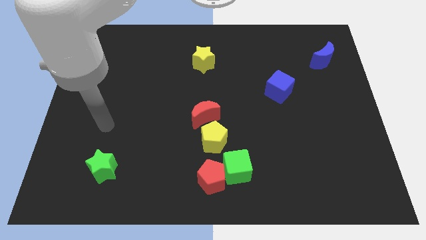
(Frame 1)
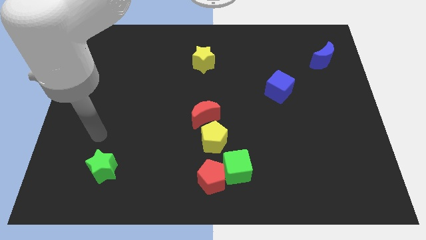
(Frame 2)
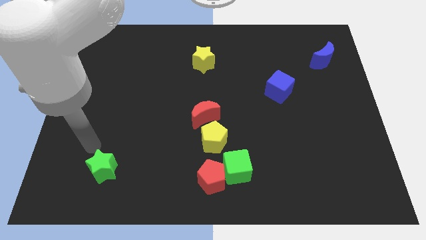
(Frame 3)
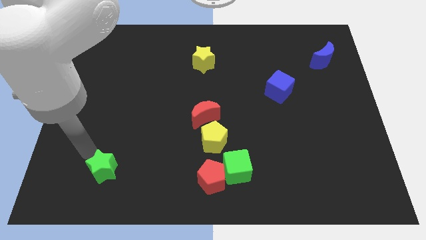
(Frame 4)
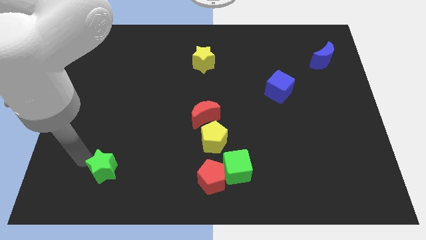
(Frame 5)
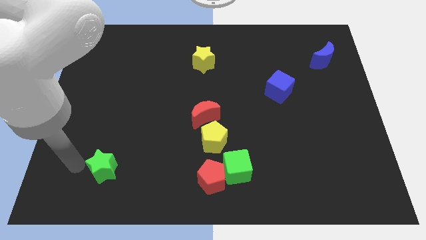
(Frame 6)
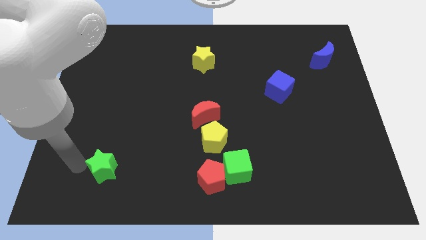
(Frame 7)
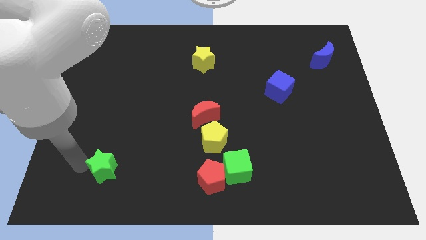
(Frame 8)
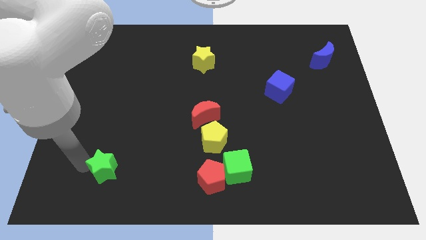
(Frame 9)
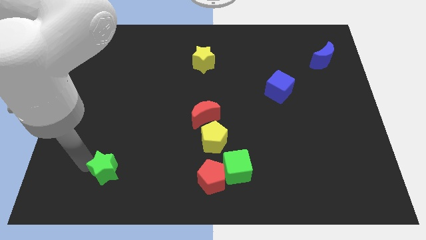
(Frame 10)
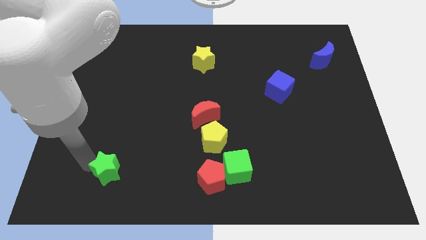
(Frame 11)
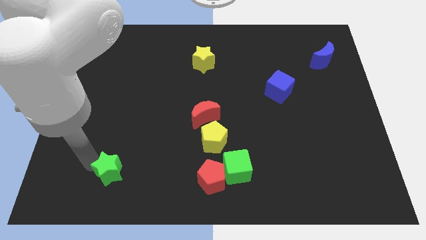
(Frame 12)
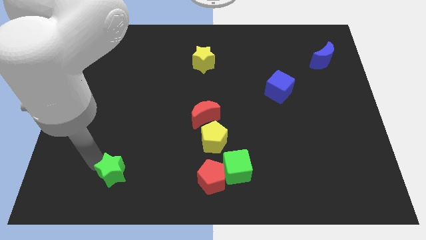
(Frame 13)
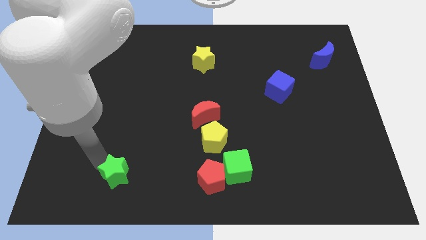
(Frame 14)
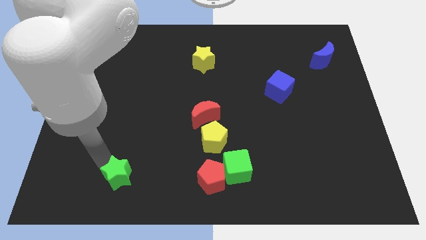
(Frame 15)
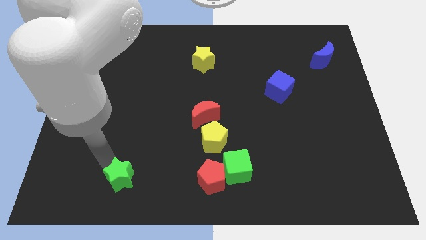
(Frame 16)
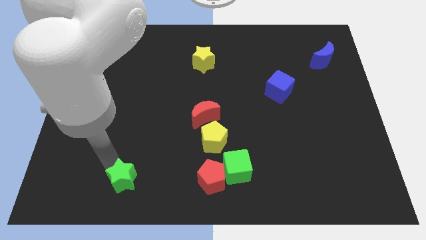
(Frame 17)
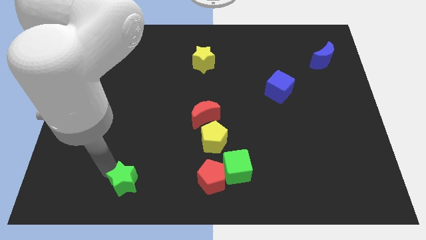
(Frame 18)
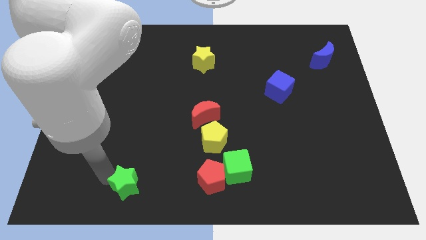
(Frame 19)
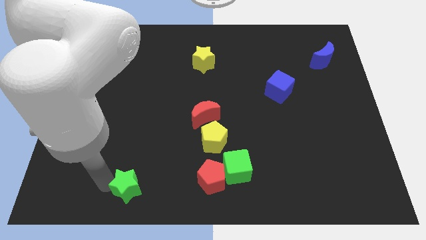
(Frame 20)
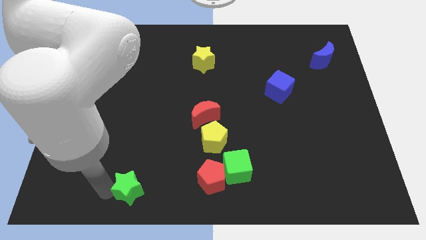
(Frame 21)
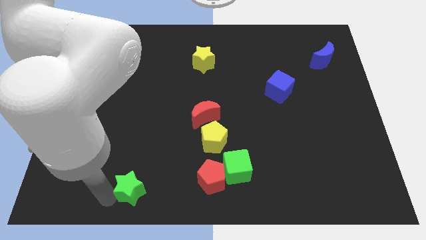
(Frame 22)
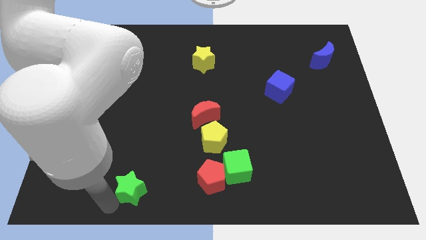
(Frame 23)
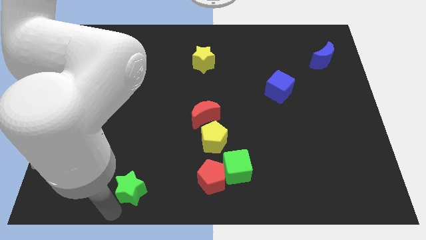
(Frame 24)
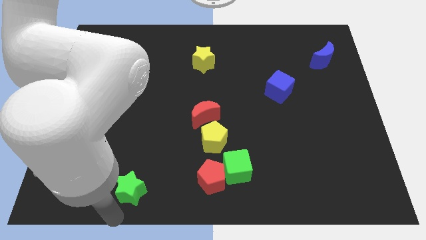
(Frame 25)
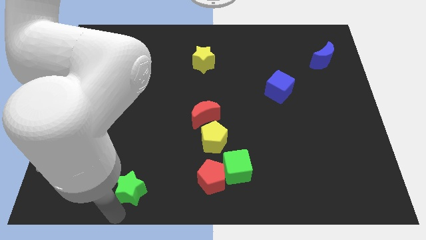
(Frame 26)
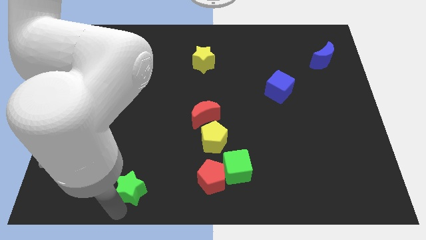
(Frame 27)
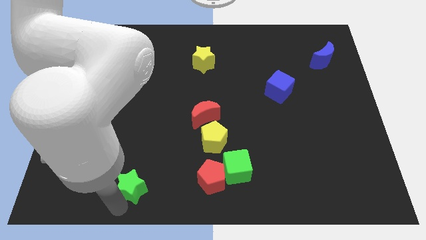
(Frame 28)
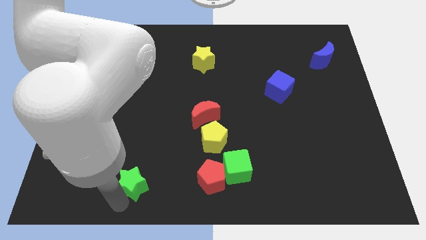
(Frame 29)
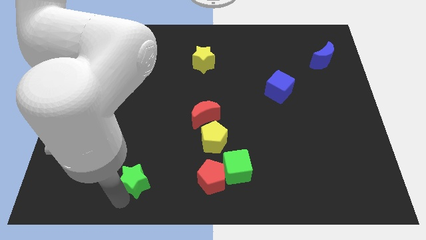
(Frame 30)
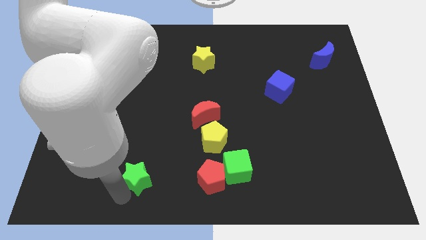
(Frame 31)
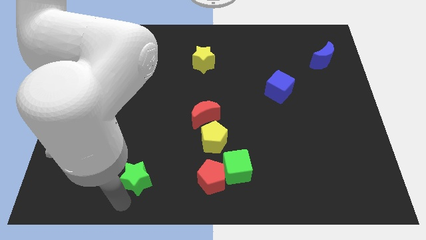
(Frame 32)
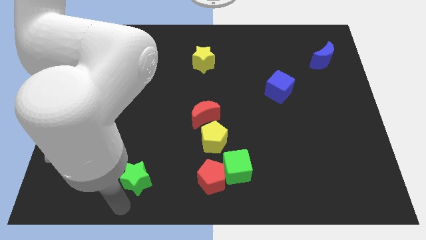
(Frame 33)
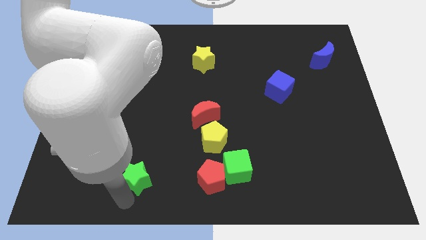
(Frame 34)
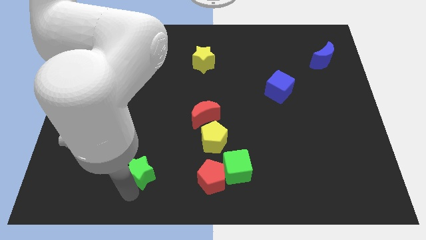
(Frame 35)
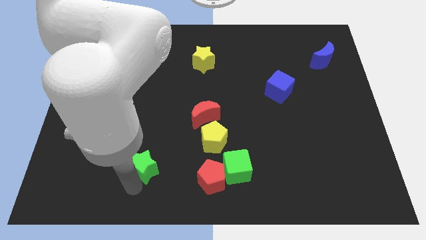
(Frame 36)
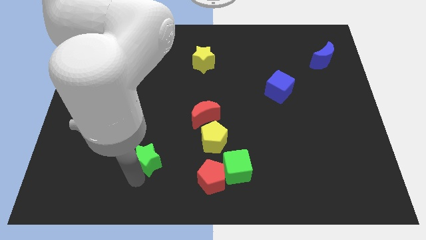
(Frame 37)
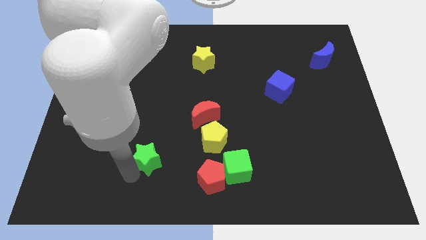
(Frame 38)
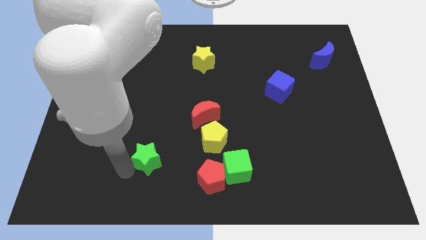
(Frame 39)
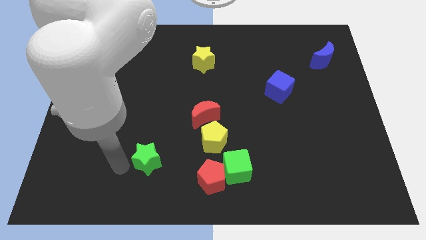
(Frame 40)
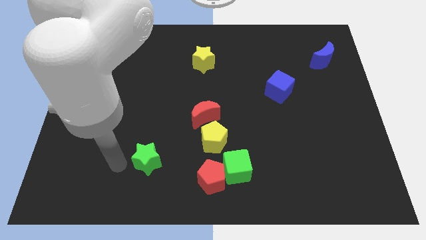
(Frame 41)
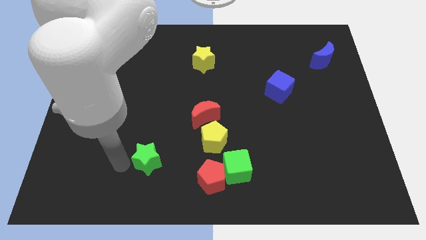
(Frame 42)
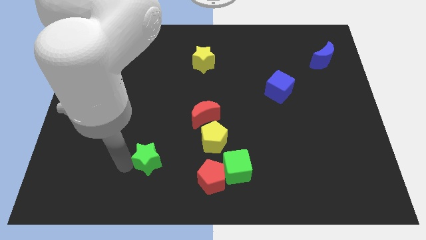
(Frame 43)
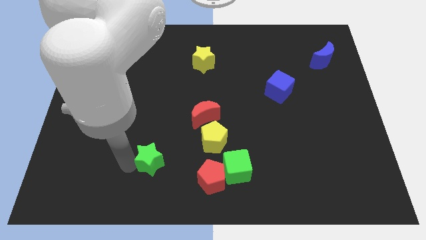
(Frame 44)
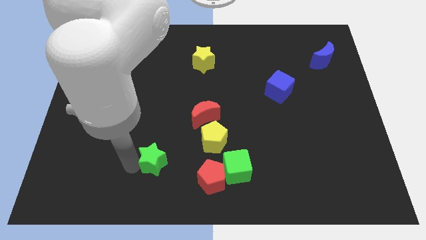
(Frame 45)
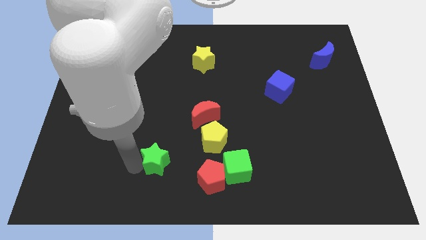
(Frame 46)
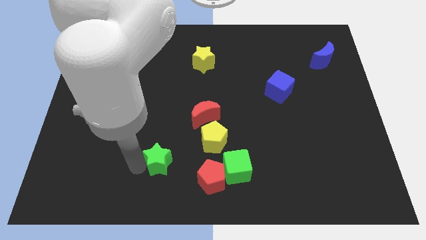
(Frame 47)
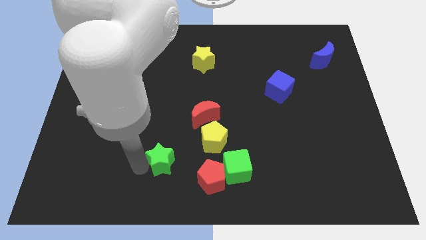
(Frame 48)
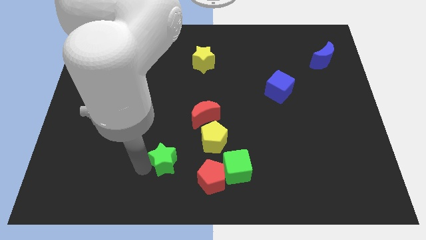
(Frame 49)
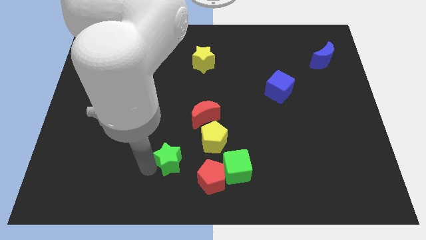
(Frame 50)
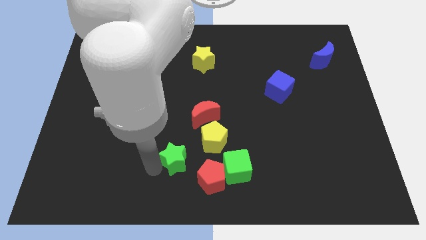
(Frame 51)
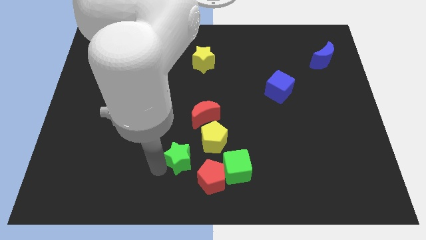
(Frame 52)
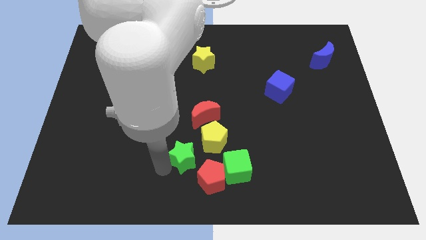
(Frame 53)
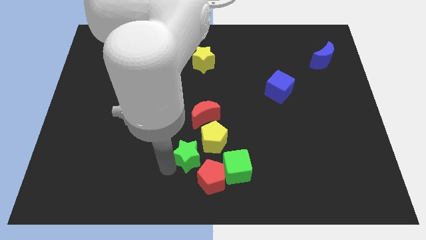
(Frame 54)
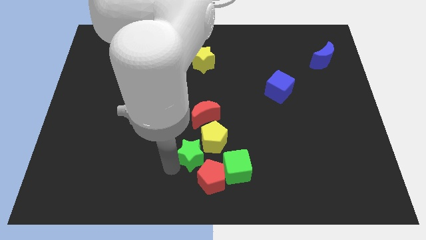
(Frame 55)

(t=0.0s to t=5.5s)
push the green star towards the yellow pentagon

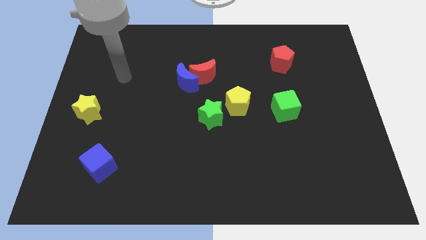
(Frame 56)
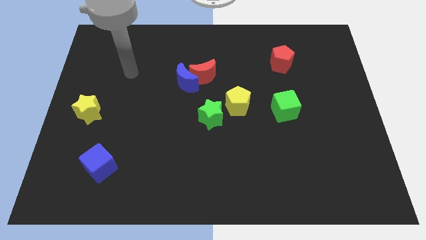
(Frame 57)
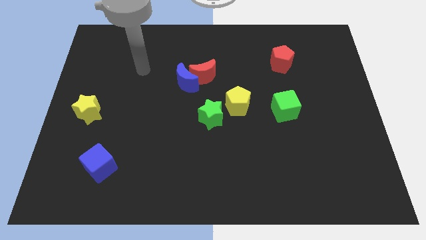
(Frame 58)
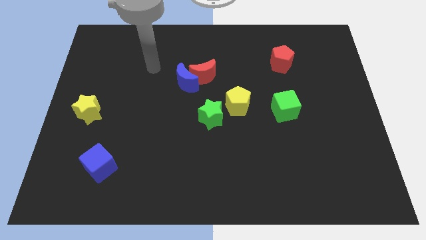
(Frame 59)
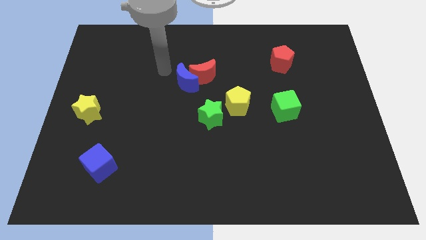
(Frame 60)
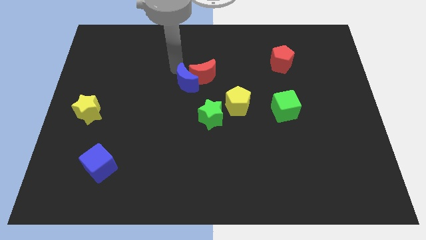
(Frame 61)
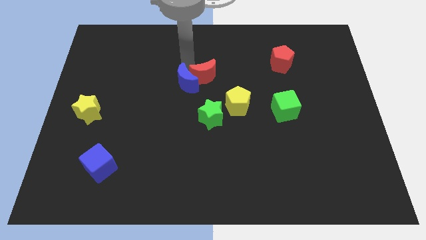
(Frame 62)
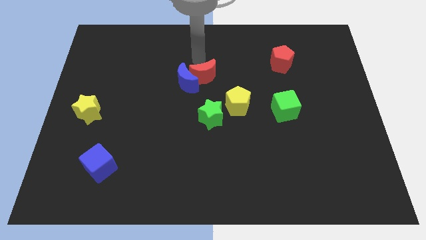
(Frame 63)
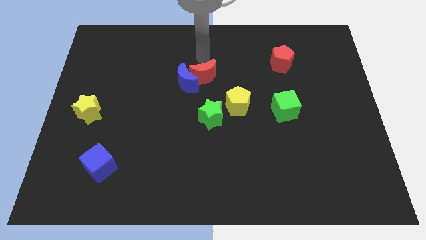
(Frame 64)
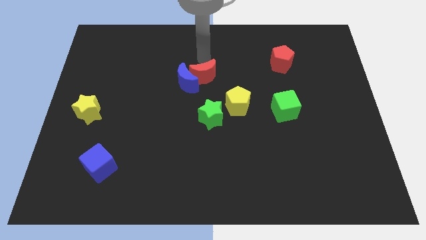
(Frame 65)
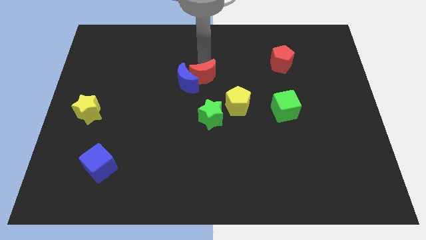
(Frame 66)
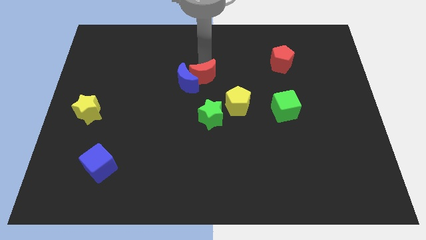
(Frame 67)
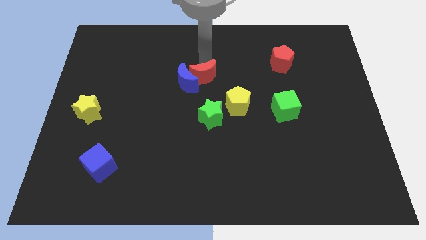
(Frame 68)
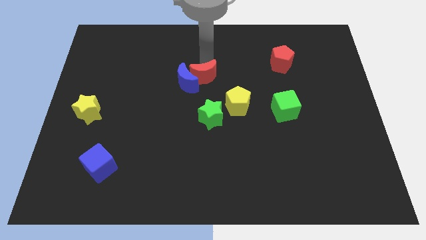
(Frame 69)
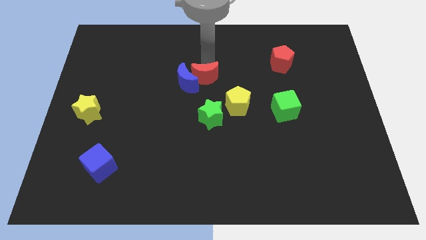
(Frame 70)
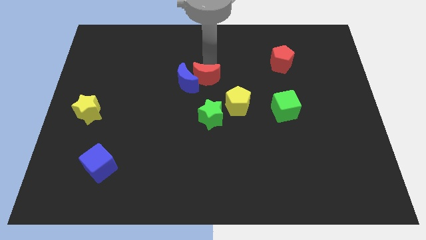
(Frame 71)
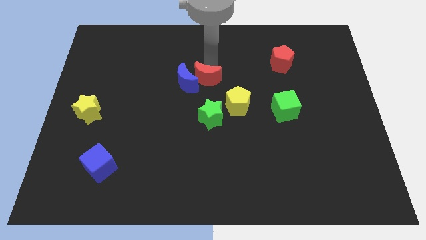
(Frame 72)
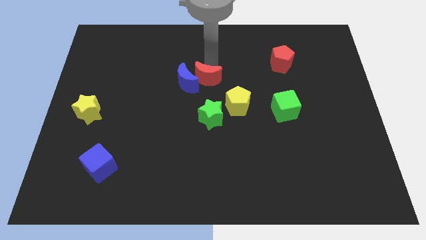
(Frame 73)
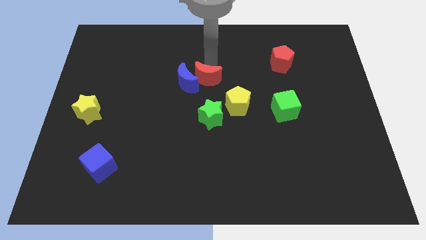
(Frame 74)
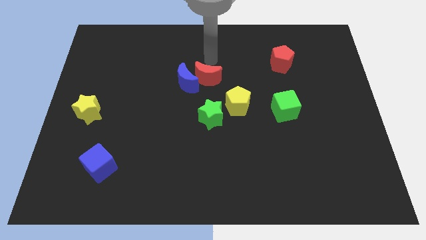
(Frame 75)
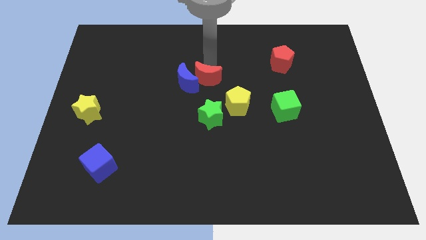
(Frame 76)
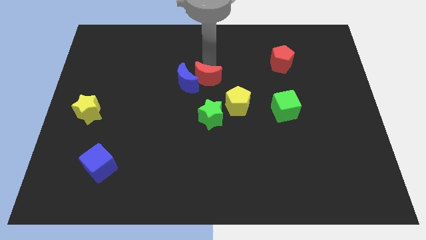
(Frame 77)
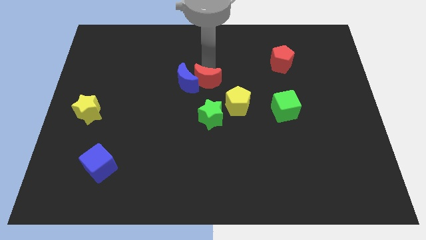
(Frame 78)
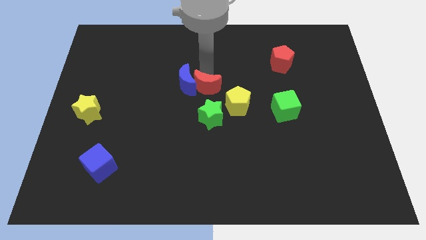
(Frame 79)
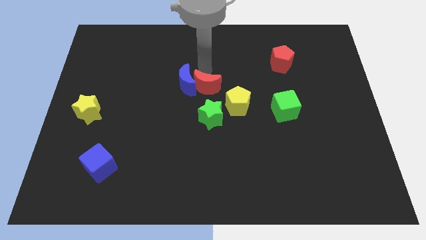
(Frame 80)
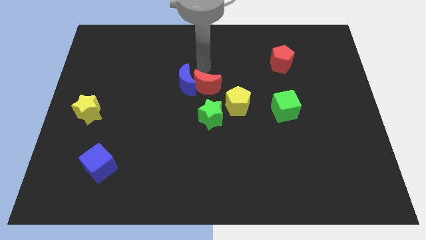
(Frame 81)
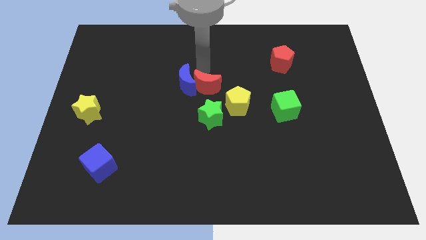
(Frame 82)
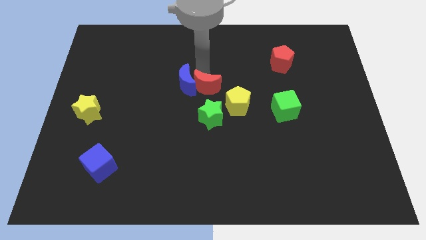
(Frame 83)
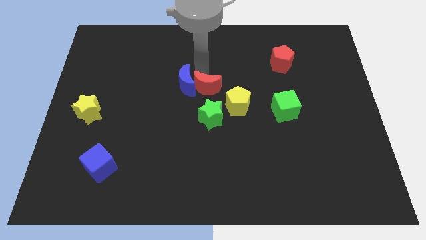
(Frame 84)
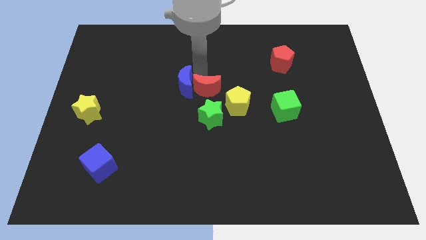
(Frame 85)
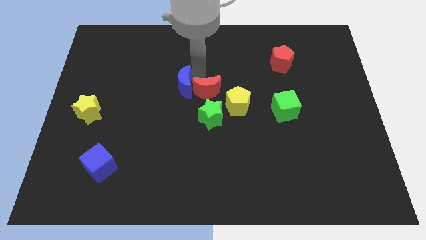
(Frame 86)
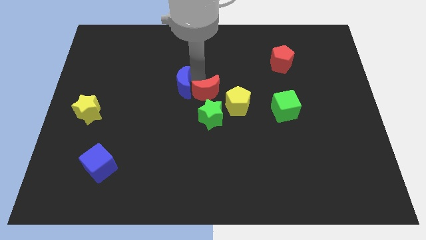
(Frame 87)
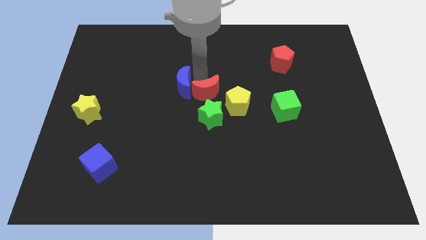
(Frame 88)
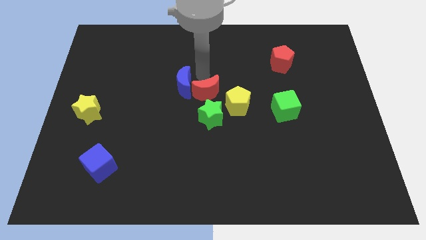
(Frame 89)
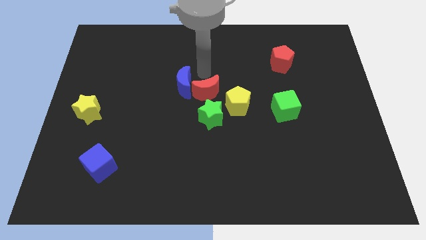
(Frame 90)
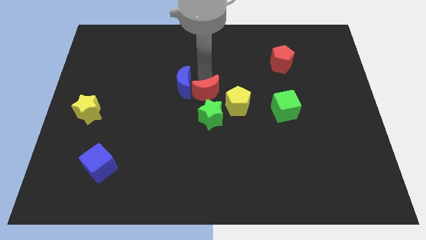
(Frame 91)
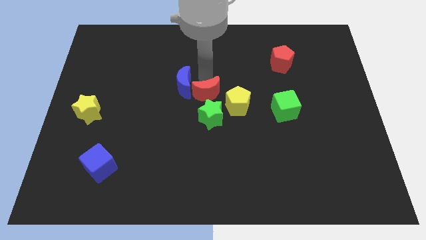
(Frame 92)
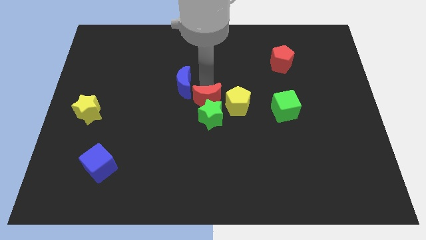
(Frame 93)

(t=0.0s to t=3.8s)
put the red moon next to the green star
